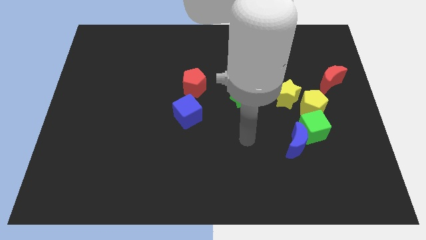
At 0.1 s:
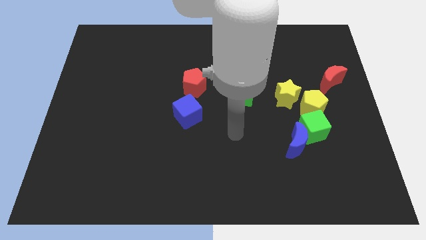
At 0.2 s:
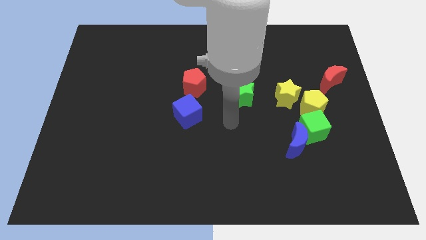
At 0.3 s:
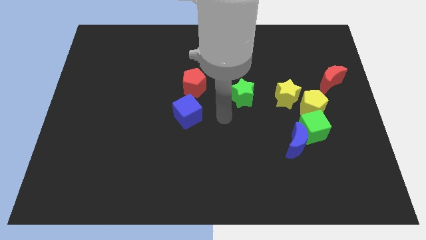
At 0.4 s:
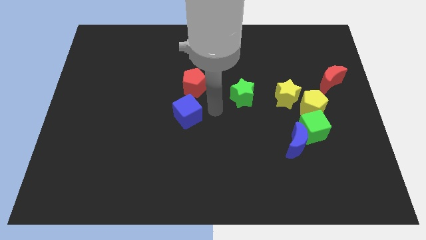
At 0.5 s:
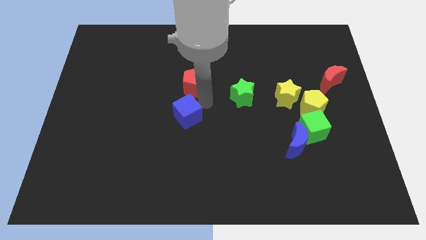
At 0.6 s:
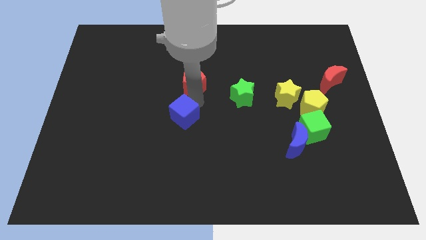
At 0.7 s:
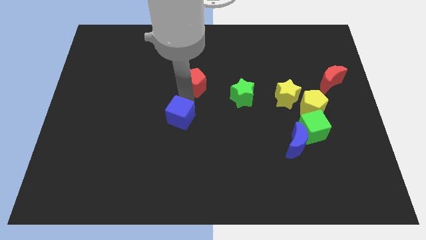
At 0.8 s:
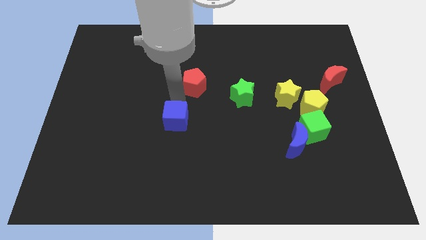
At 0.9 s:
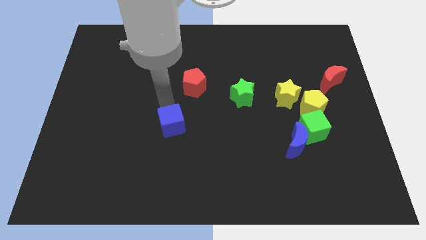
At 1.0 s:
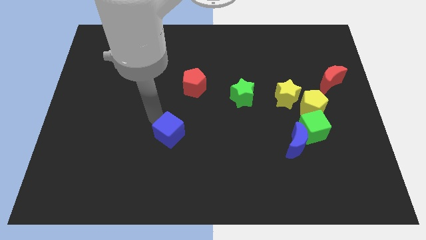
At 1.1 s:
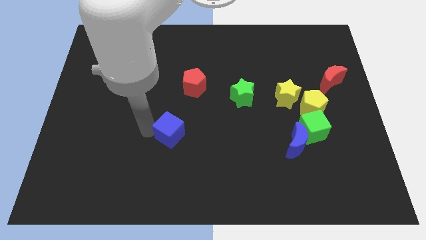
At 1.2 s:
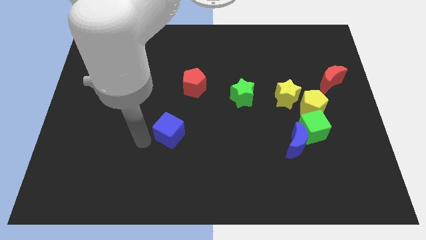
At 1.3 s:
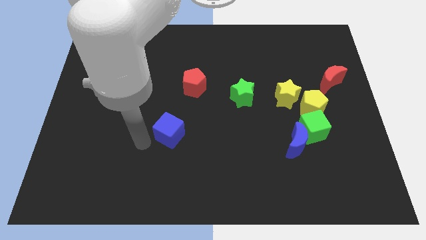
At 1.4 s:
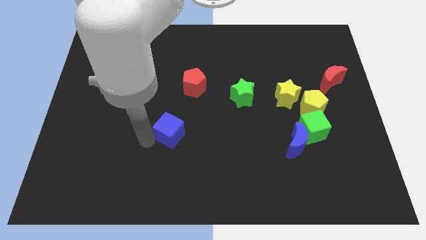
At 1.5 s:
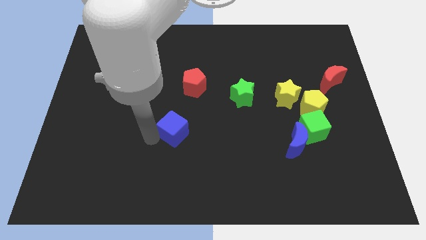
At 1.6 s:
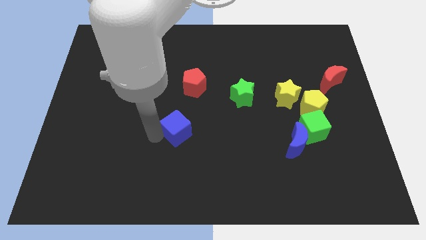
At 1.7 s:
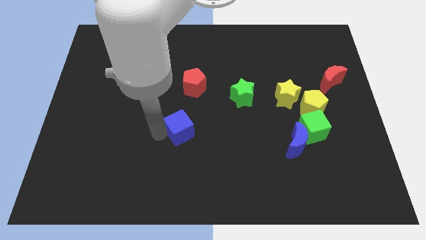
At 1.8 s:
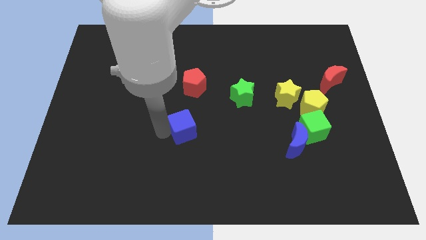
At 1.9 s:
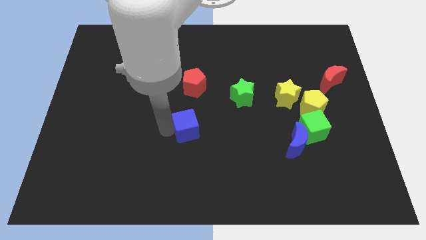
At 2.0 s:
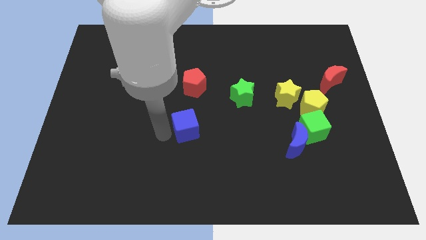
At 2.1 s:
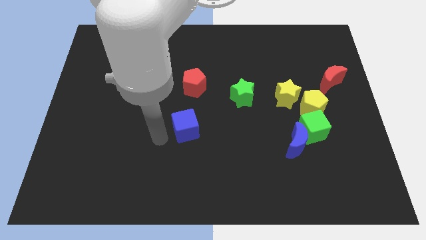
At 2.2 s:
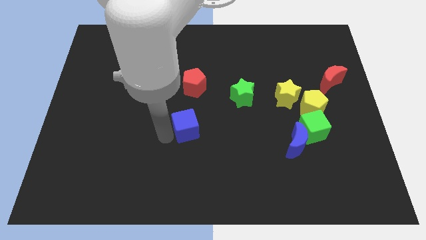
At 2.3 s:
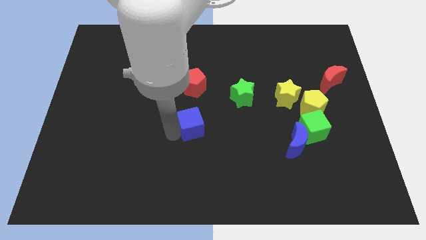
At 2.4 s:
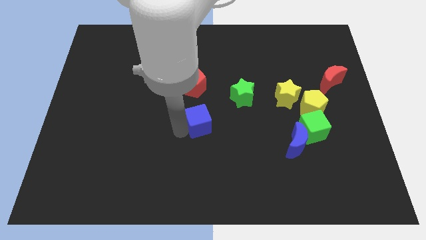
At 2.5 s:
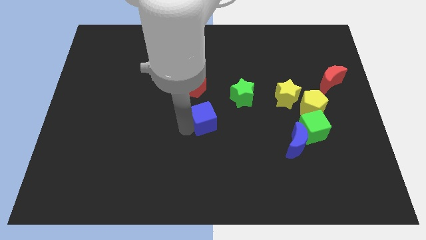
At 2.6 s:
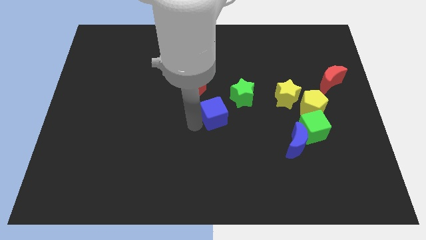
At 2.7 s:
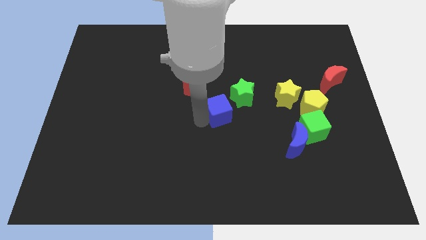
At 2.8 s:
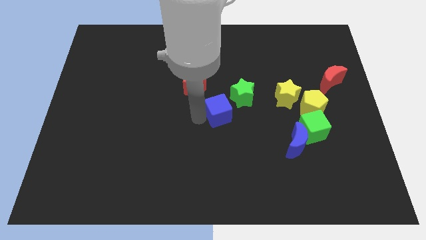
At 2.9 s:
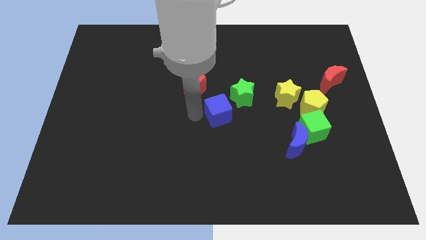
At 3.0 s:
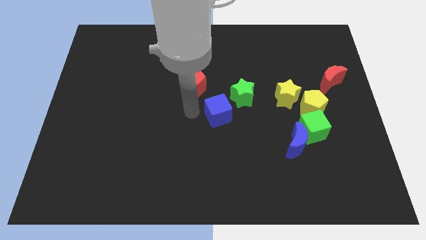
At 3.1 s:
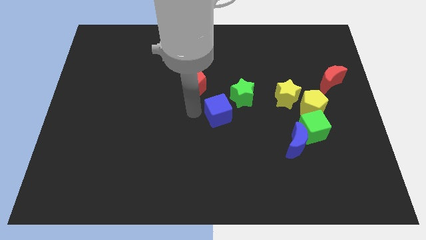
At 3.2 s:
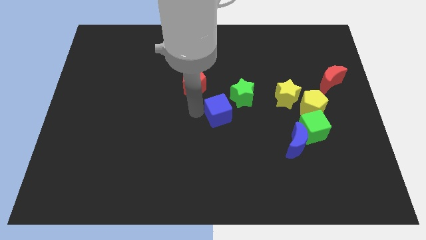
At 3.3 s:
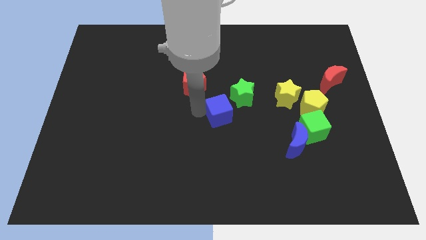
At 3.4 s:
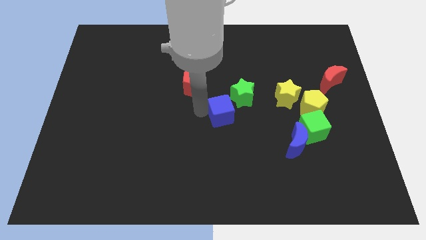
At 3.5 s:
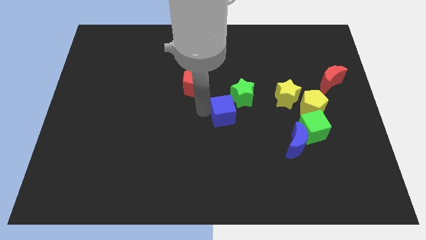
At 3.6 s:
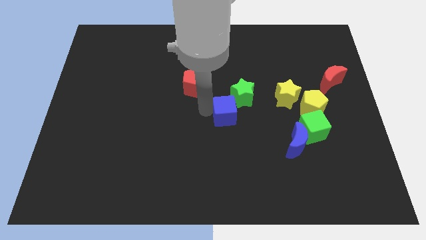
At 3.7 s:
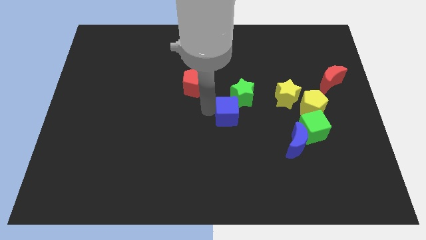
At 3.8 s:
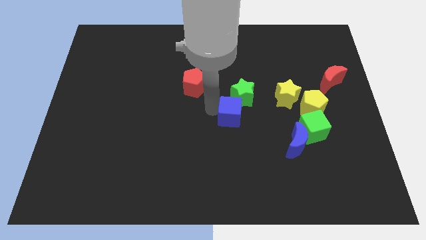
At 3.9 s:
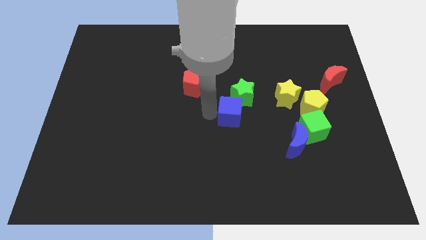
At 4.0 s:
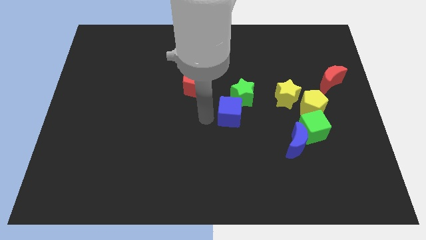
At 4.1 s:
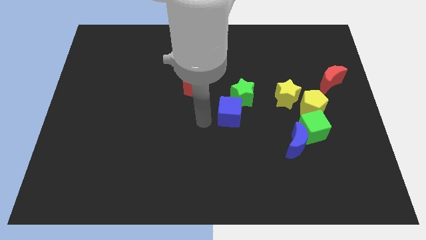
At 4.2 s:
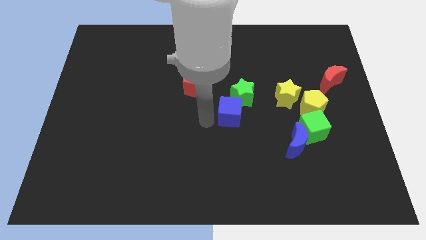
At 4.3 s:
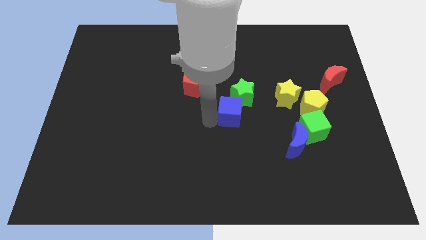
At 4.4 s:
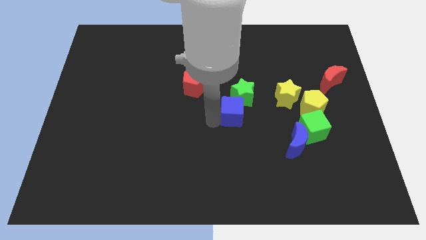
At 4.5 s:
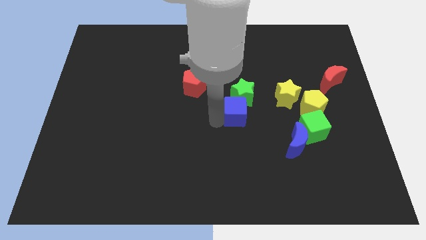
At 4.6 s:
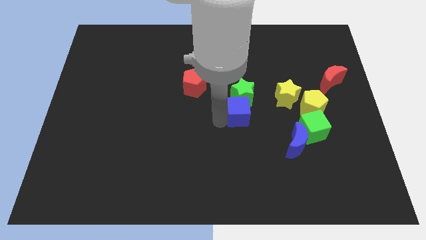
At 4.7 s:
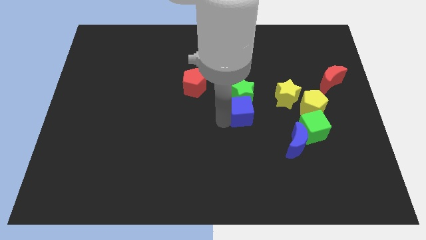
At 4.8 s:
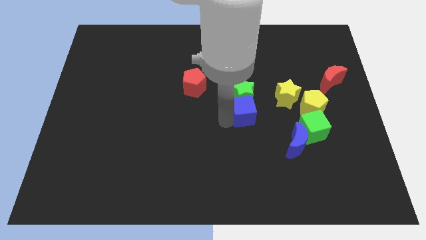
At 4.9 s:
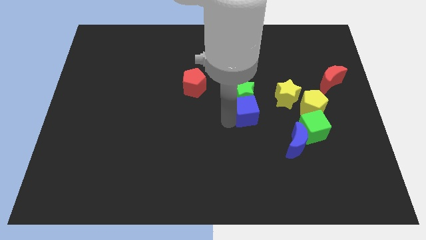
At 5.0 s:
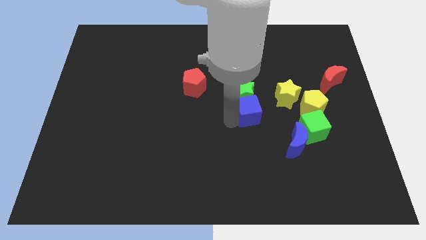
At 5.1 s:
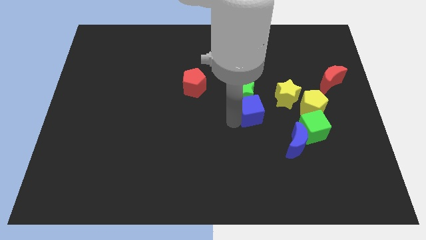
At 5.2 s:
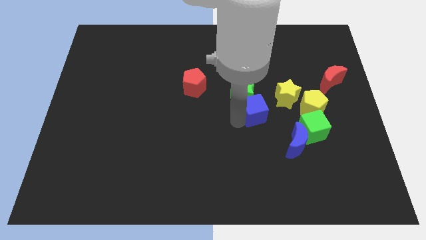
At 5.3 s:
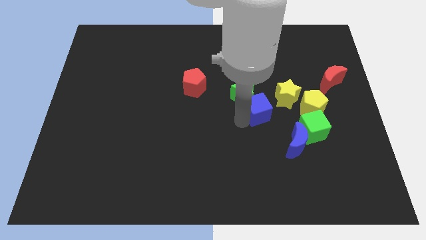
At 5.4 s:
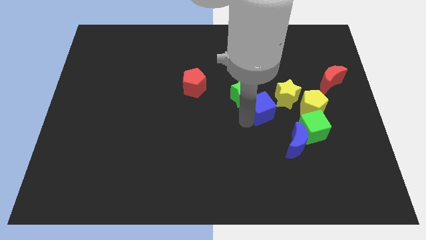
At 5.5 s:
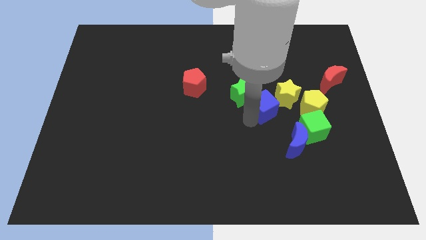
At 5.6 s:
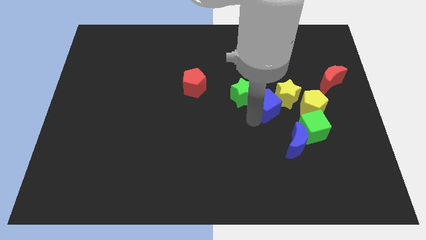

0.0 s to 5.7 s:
move the blue cube next to the yellow star

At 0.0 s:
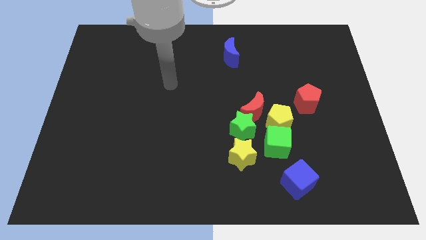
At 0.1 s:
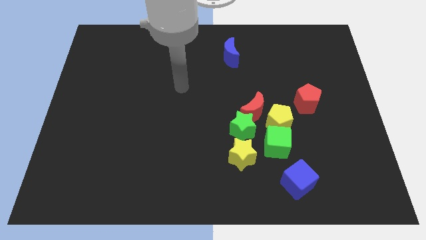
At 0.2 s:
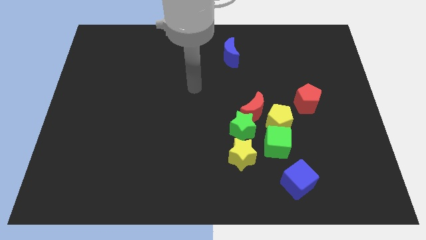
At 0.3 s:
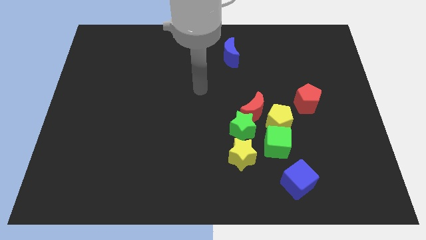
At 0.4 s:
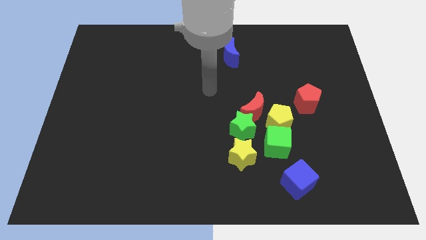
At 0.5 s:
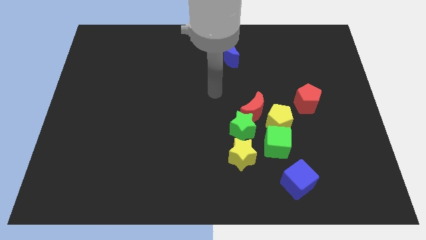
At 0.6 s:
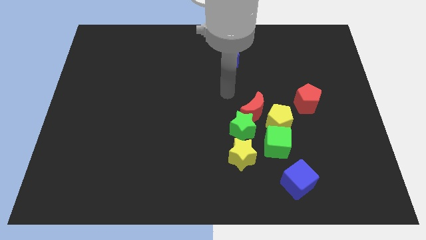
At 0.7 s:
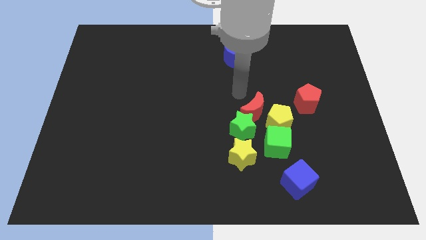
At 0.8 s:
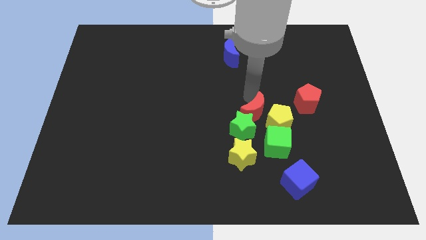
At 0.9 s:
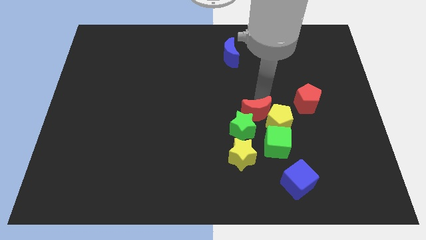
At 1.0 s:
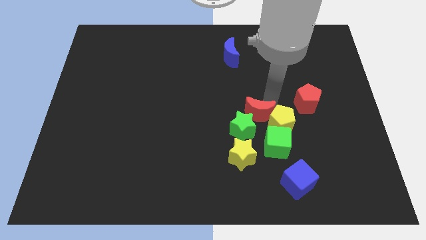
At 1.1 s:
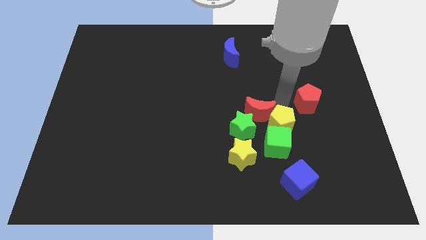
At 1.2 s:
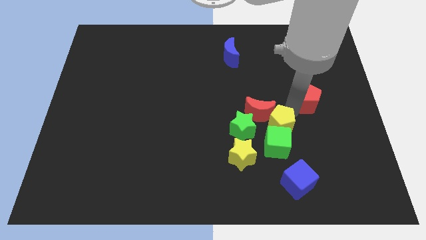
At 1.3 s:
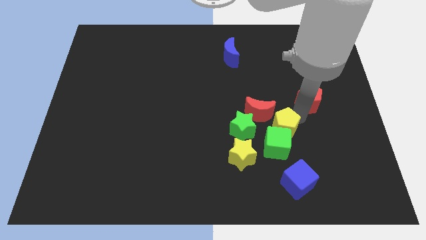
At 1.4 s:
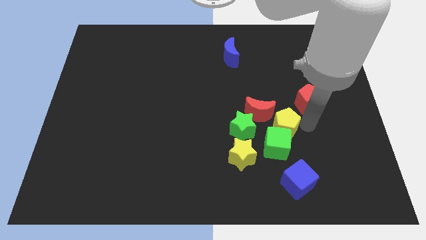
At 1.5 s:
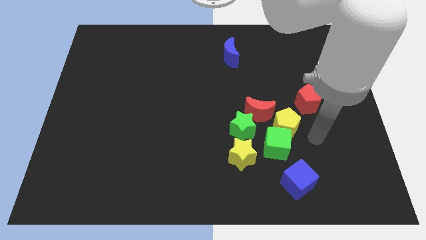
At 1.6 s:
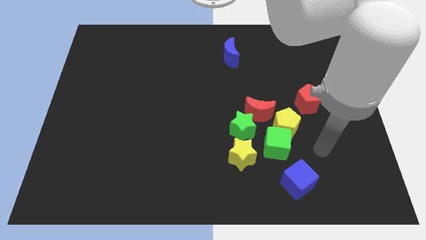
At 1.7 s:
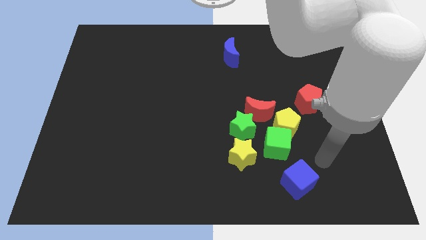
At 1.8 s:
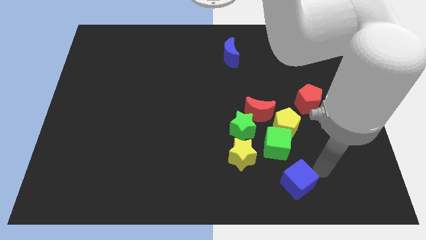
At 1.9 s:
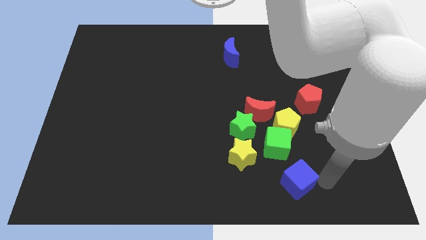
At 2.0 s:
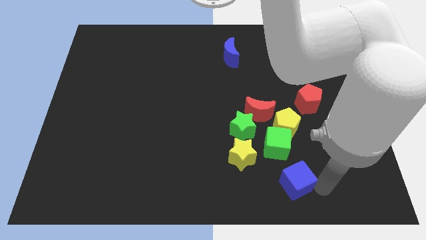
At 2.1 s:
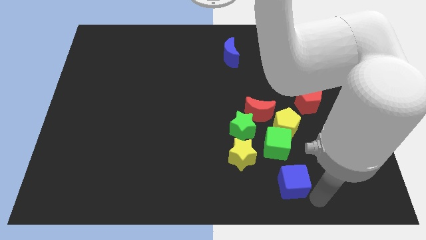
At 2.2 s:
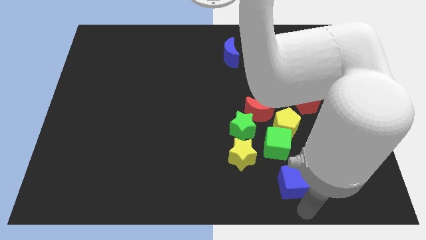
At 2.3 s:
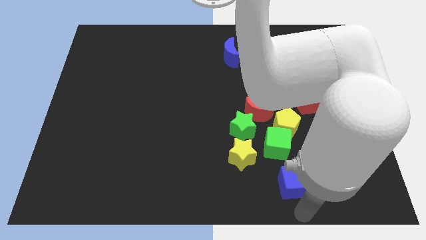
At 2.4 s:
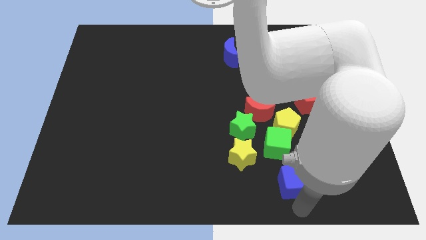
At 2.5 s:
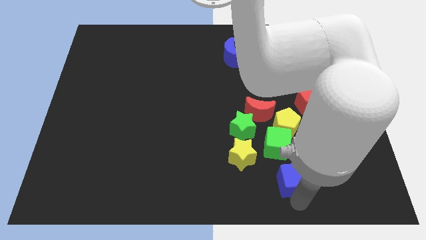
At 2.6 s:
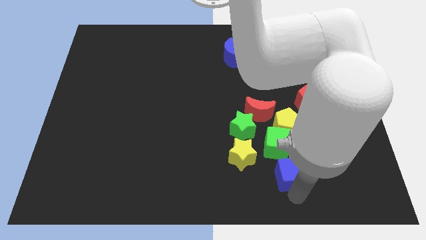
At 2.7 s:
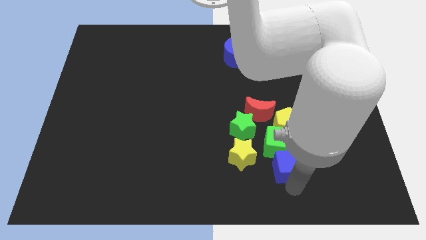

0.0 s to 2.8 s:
push the blue cube to the green cube
